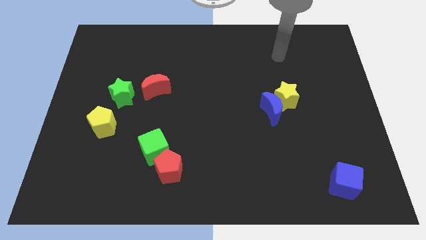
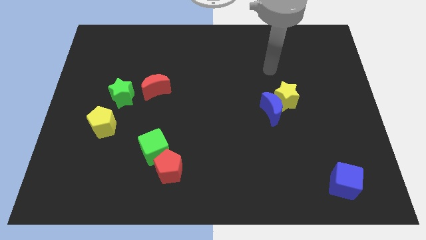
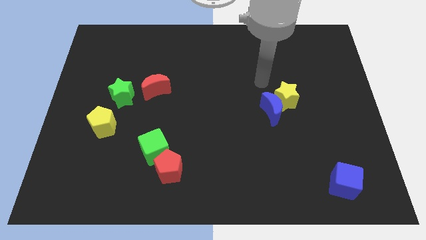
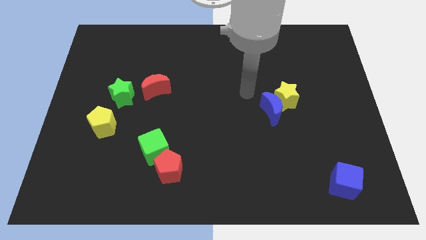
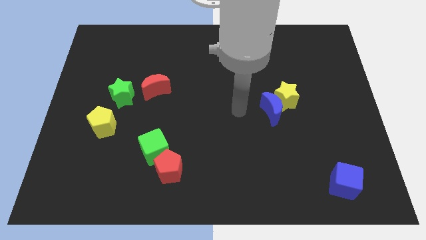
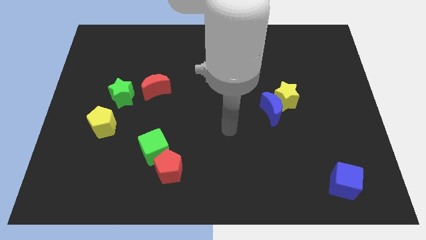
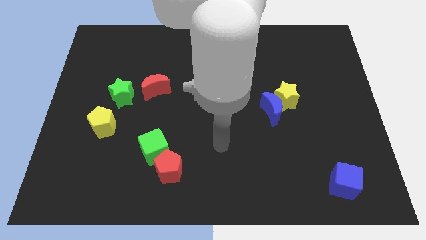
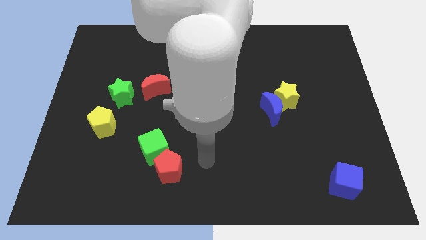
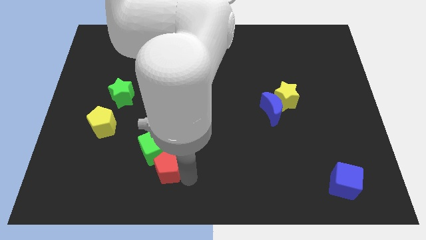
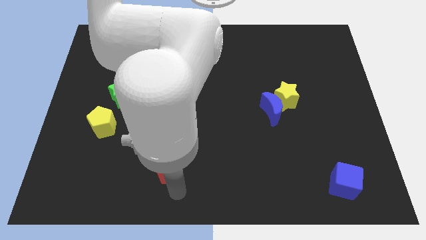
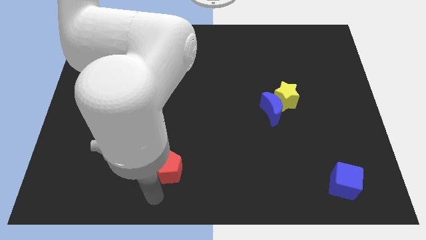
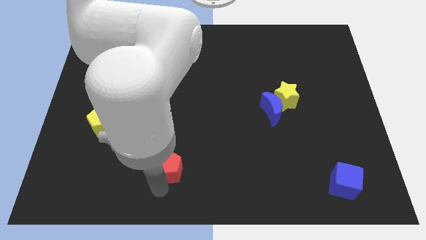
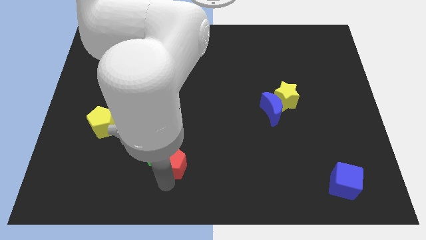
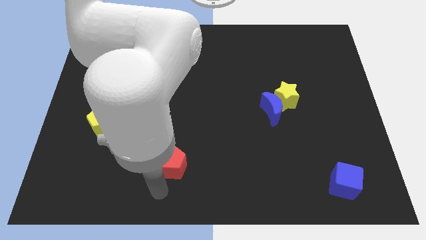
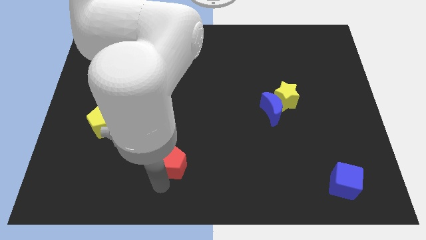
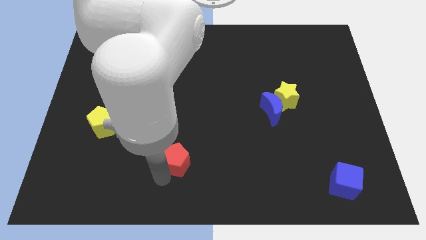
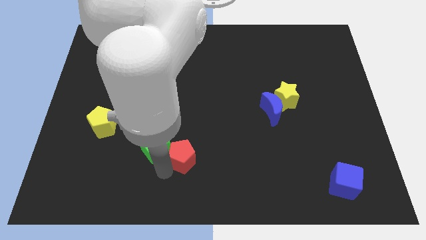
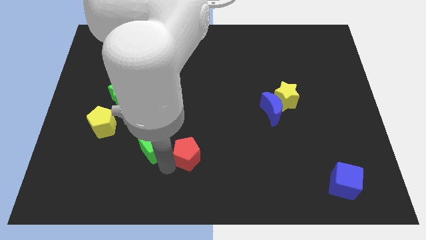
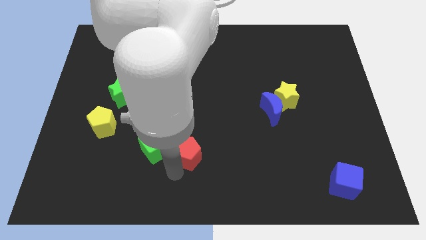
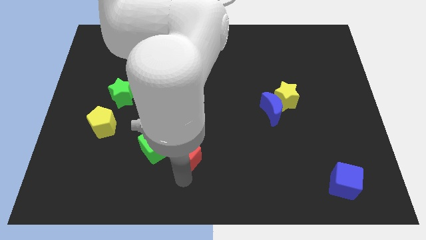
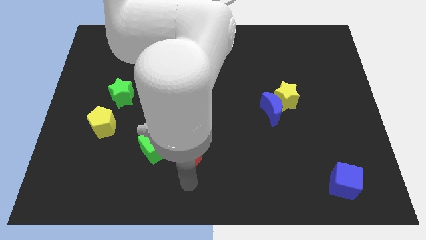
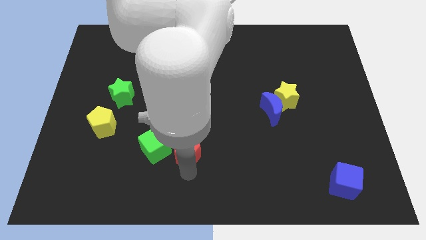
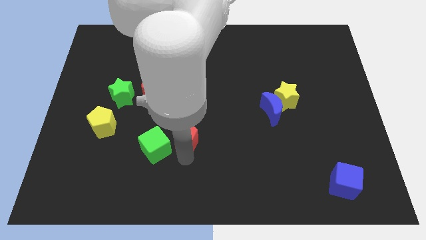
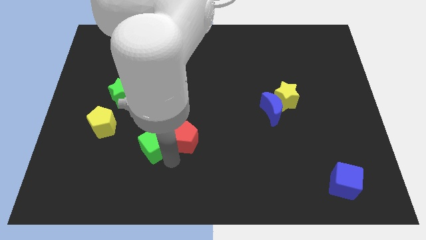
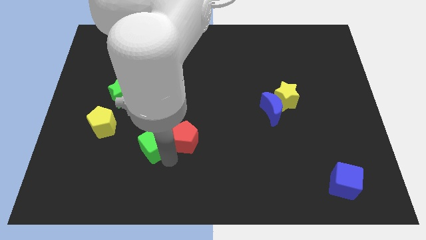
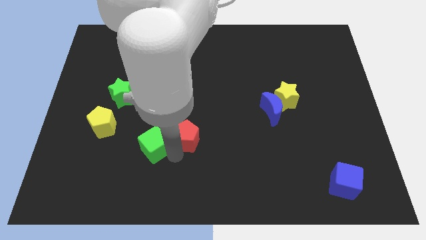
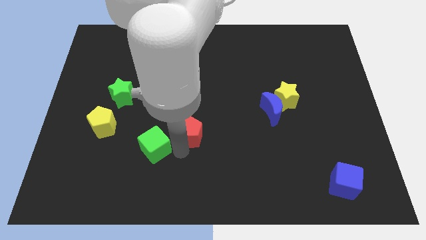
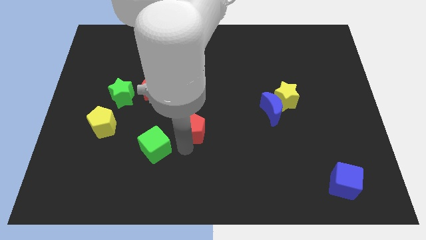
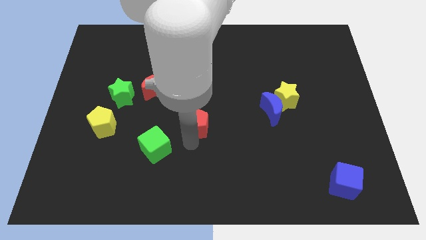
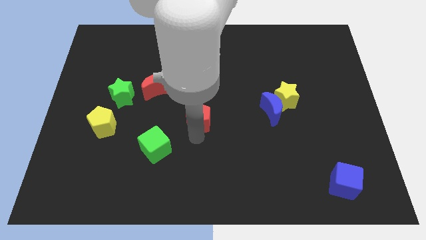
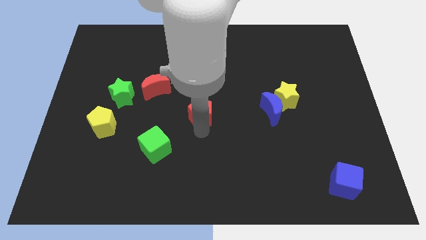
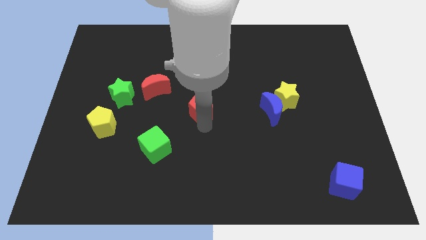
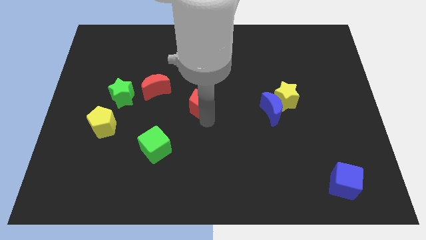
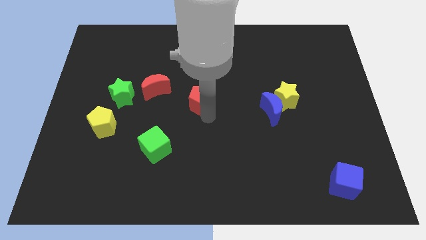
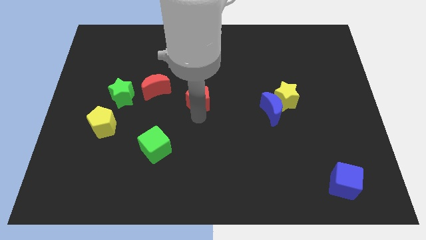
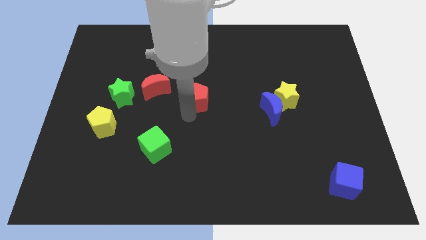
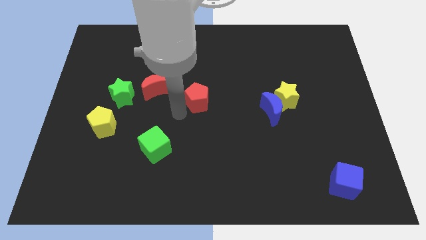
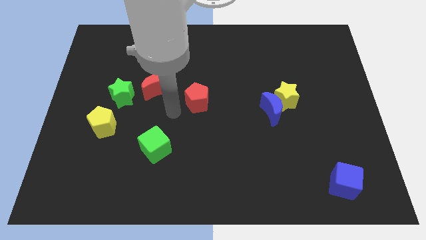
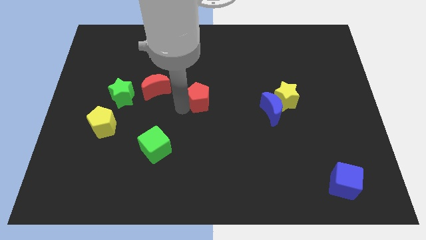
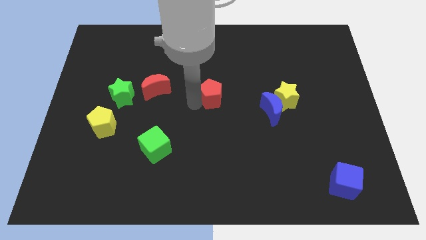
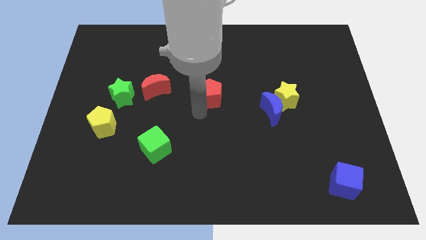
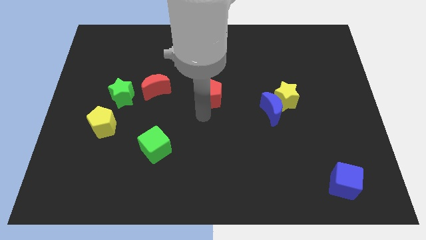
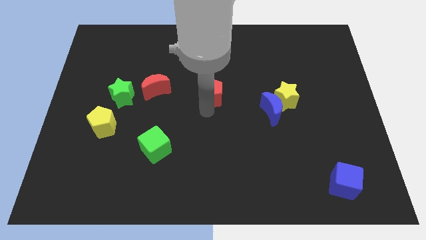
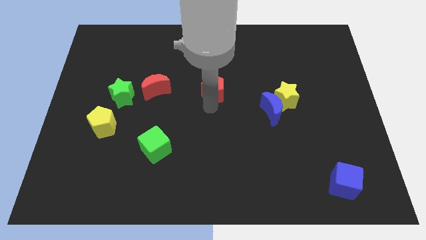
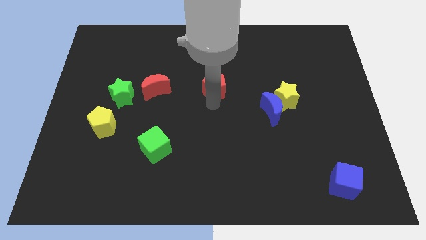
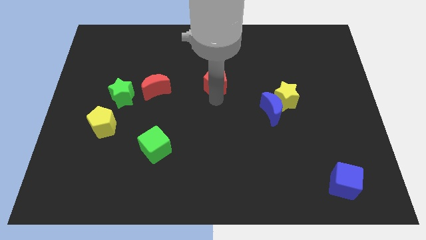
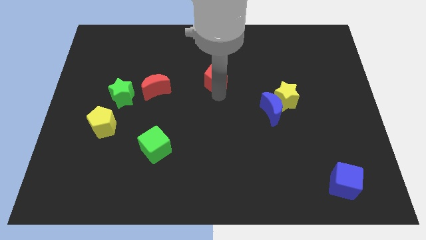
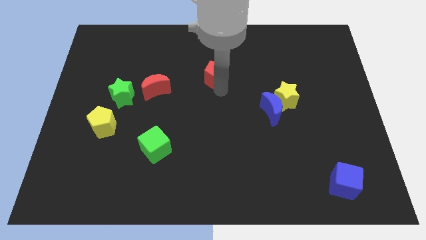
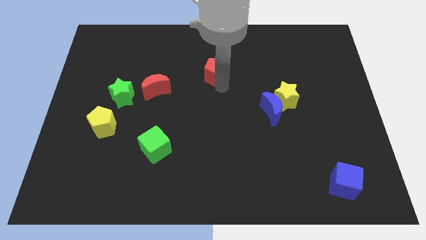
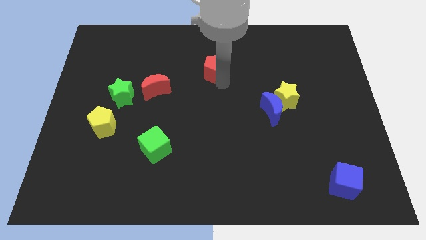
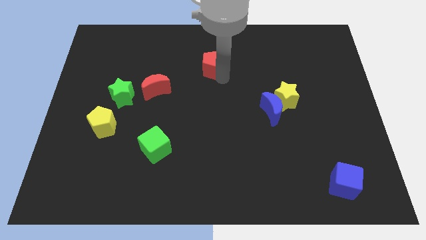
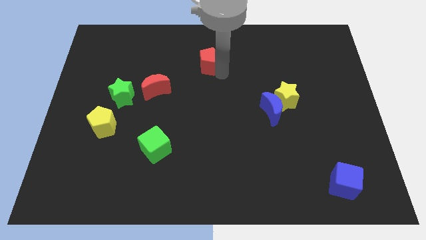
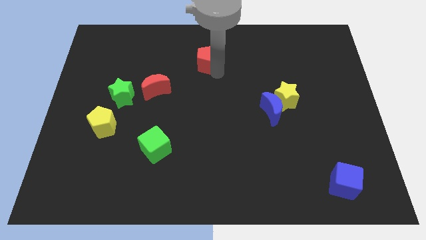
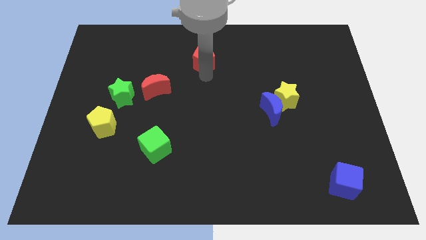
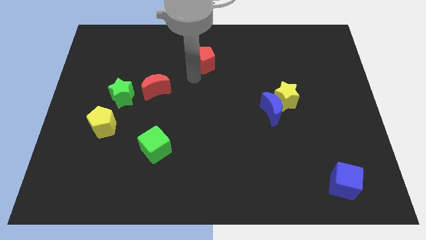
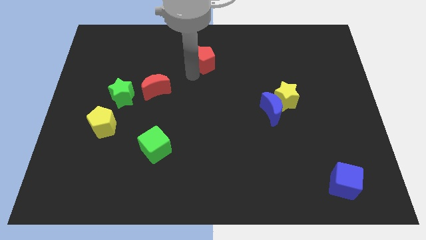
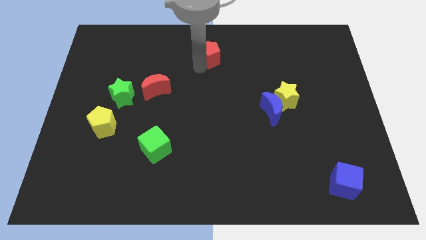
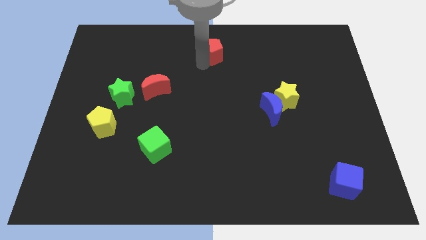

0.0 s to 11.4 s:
put the red pentagon to the towards your base

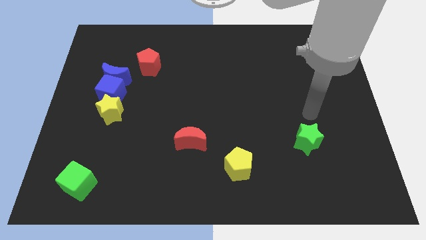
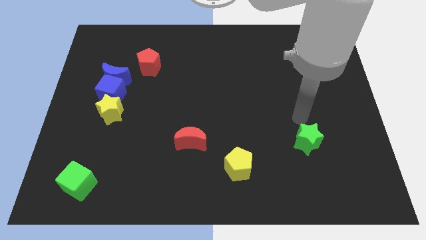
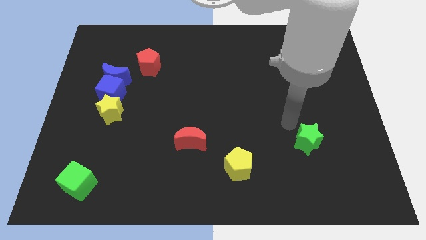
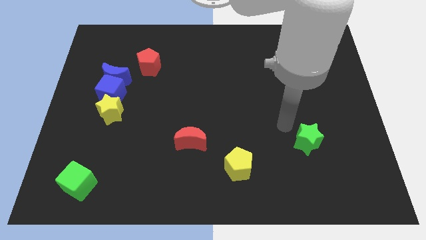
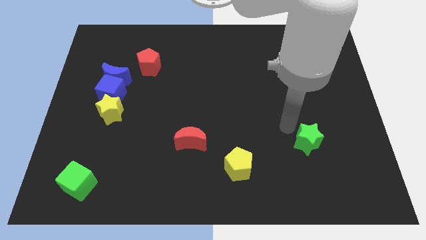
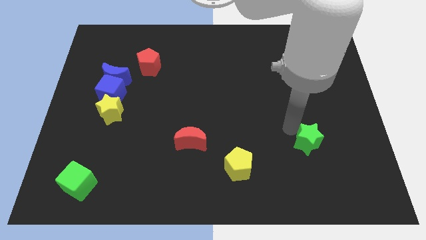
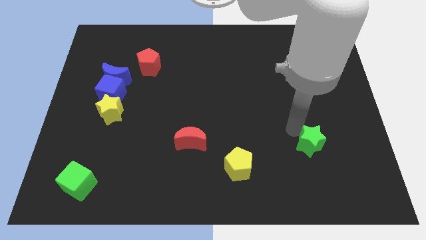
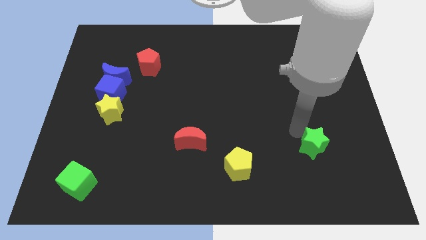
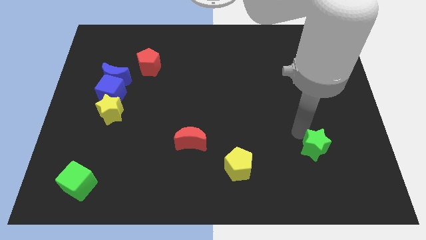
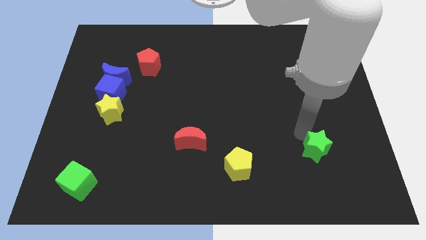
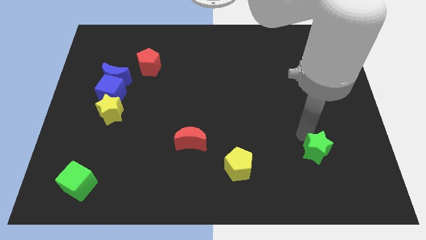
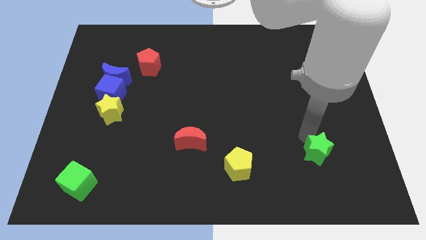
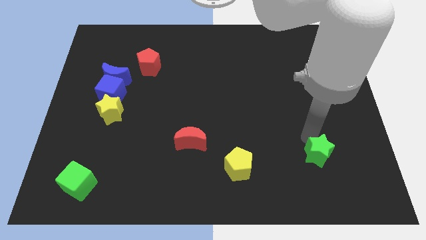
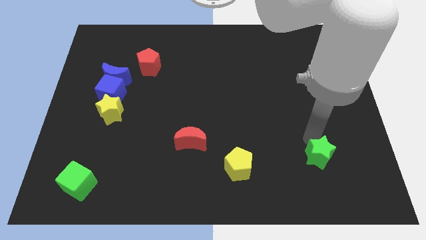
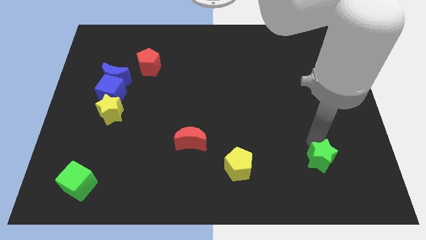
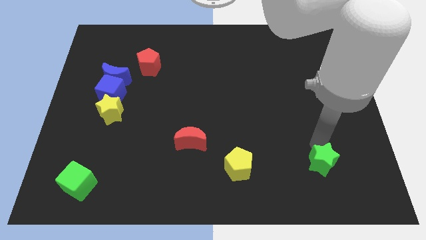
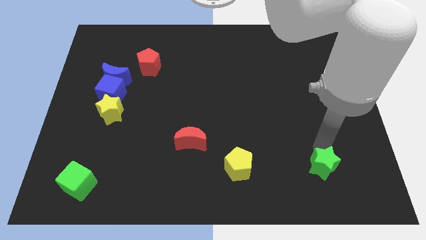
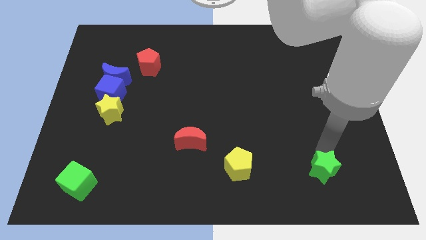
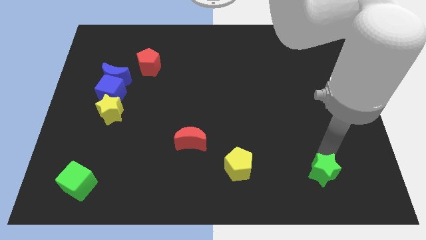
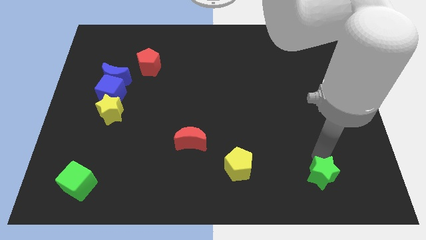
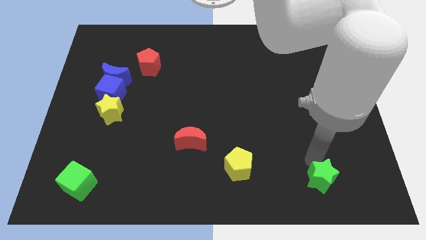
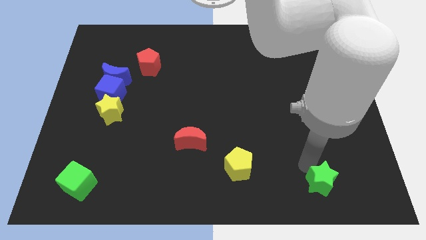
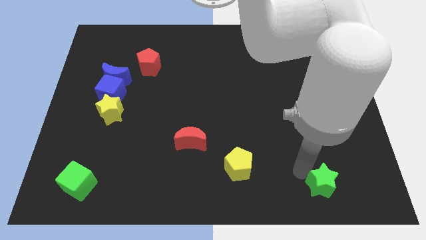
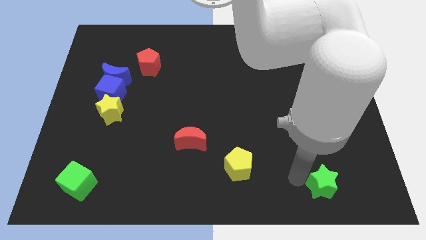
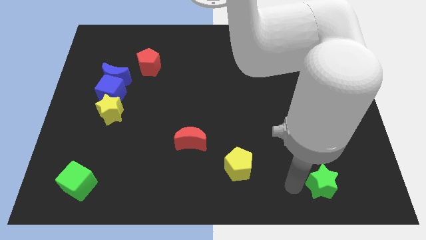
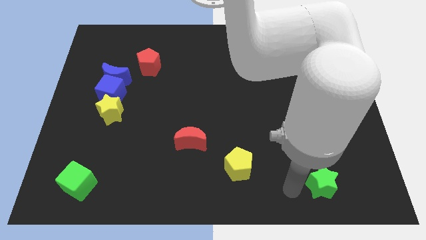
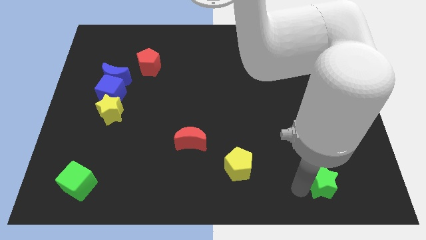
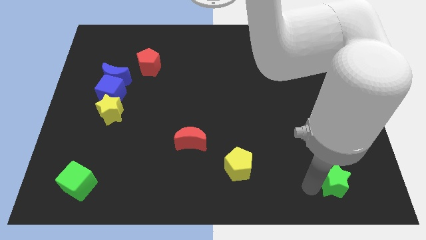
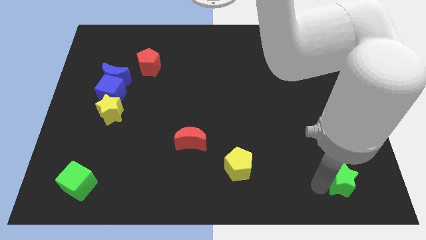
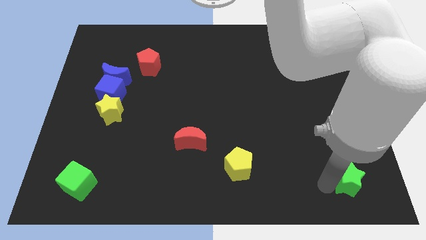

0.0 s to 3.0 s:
push the green star to the lower right corner
